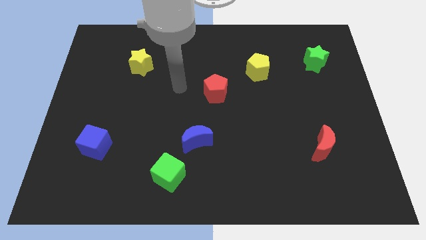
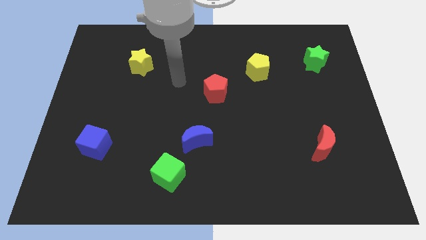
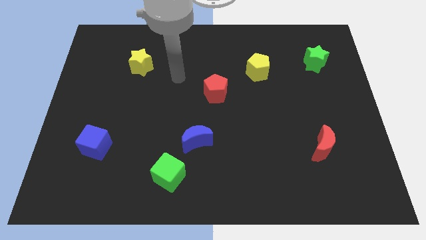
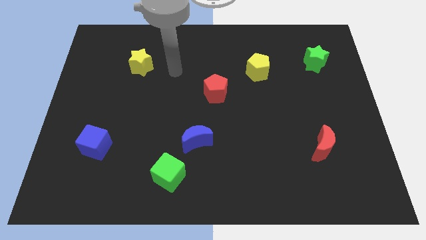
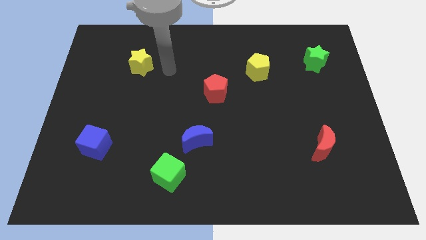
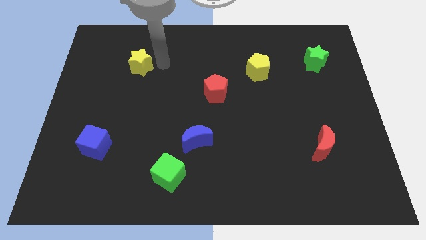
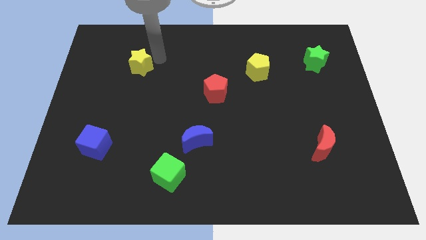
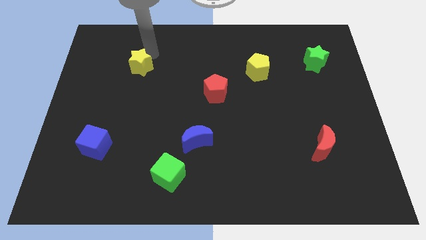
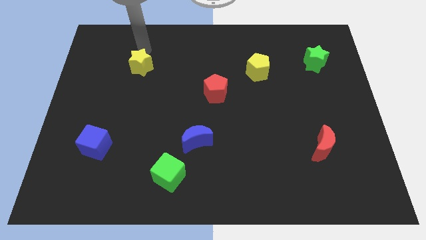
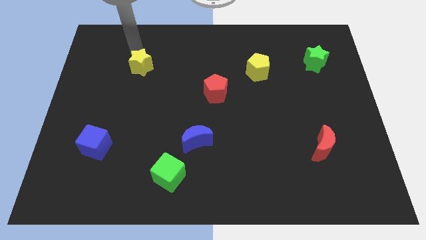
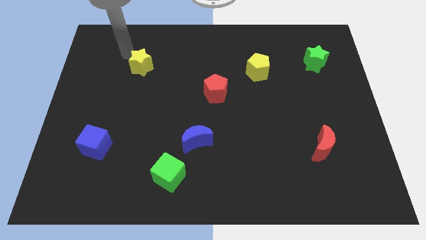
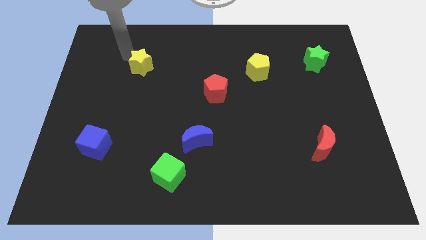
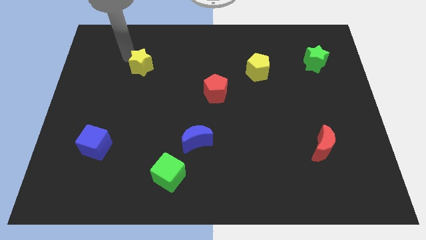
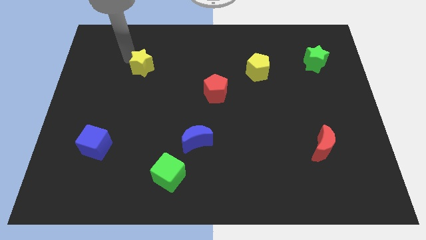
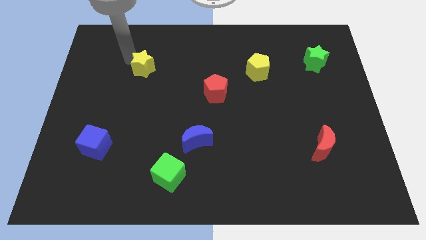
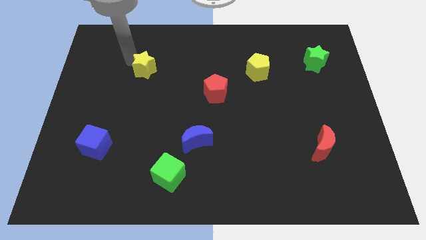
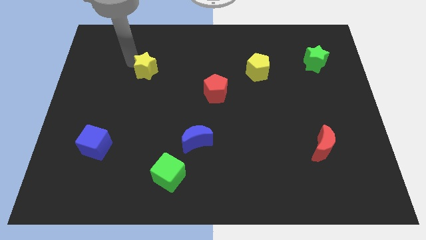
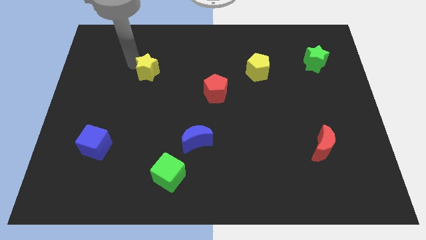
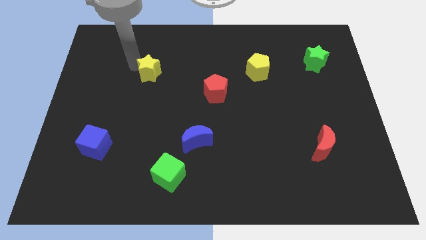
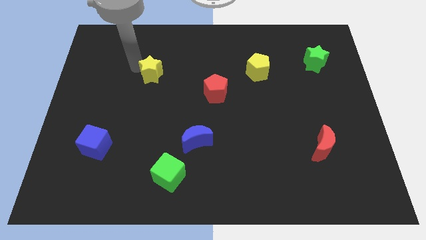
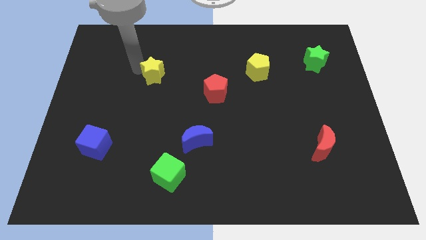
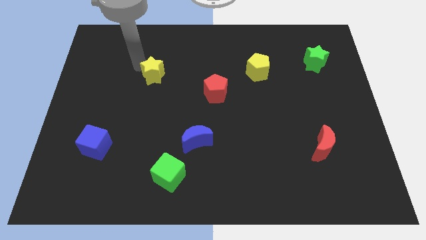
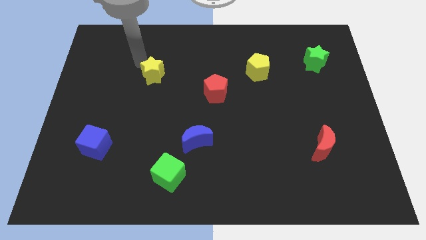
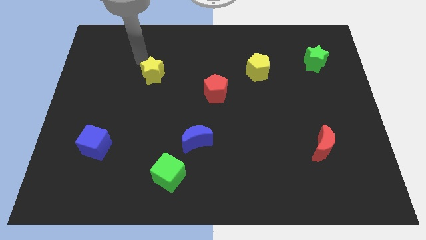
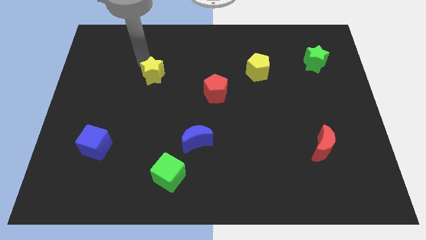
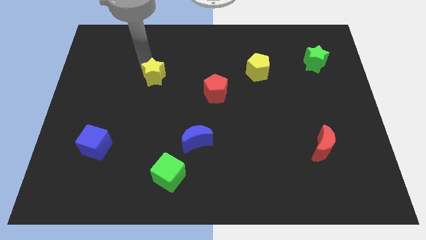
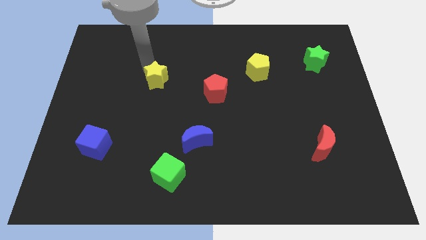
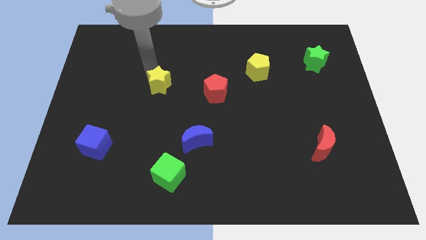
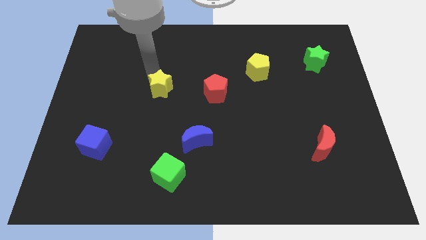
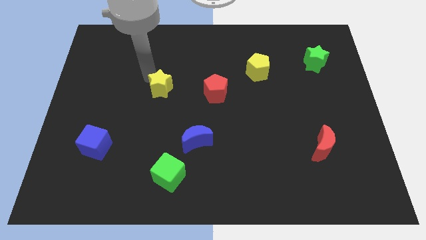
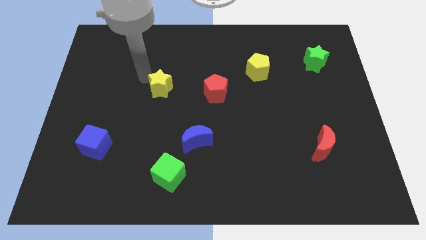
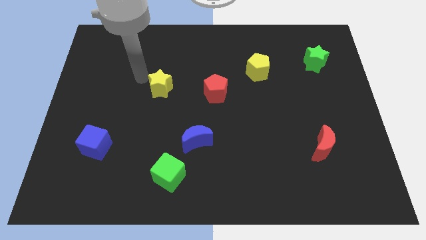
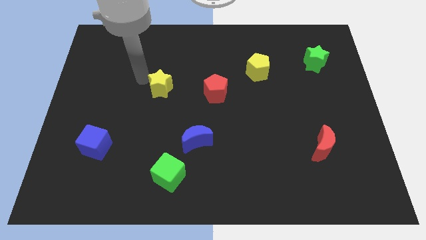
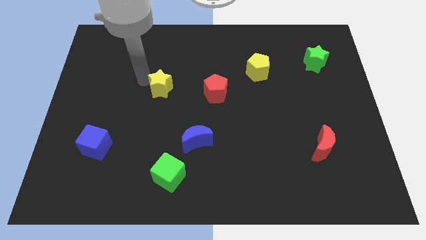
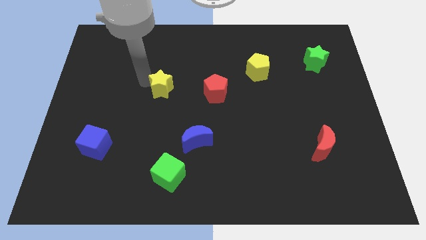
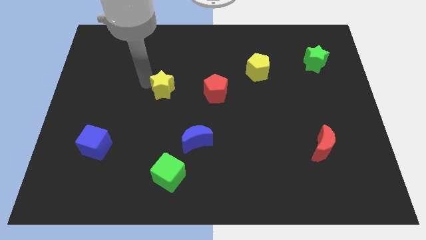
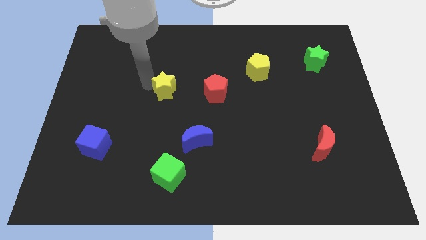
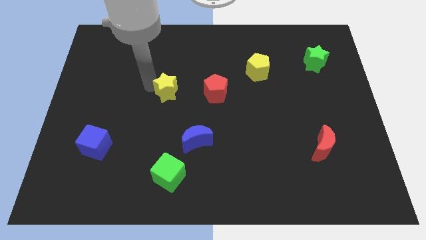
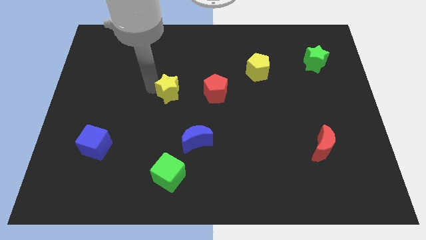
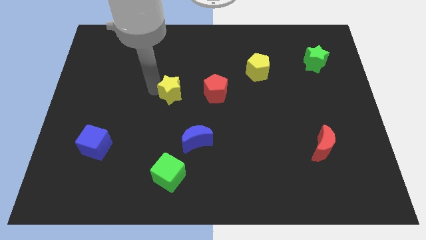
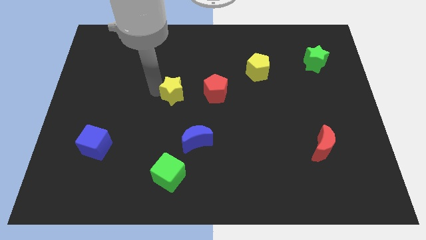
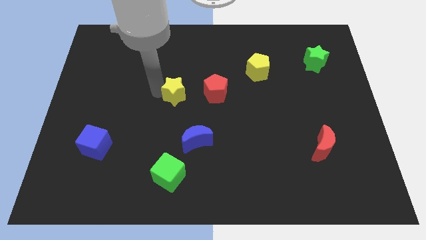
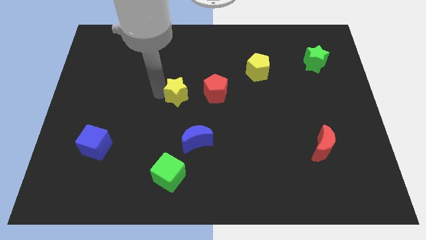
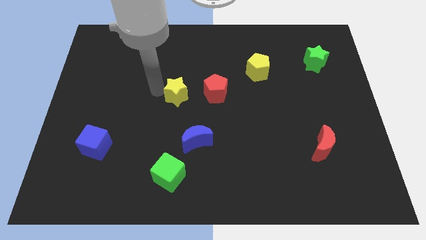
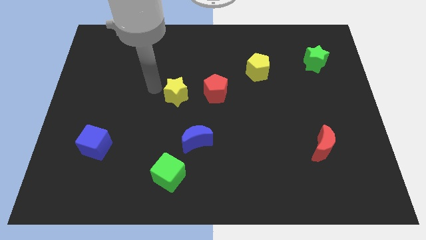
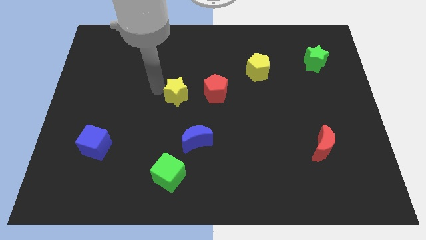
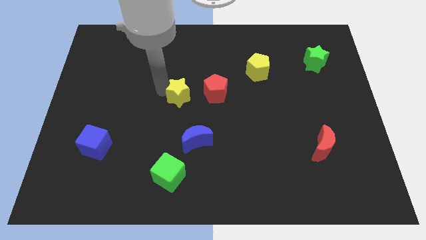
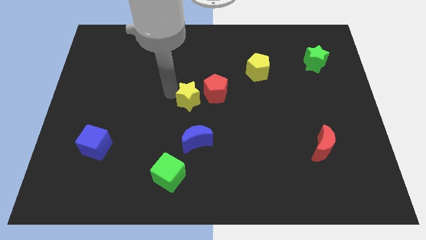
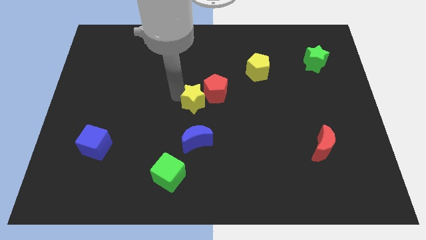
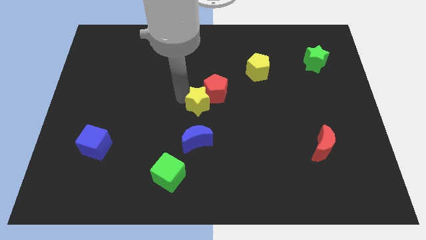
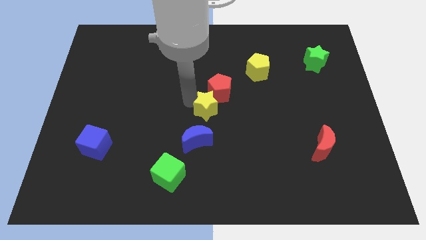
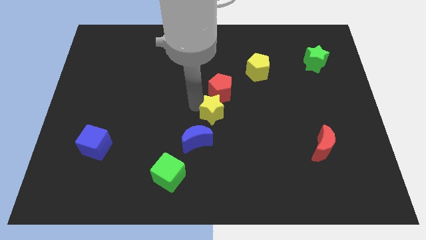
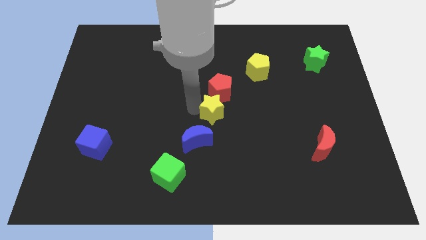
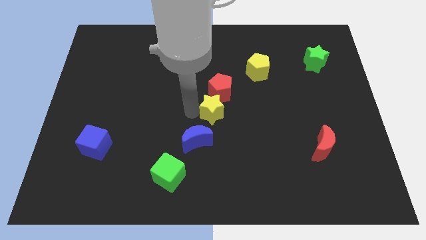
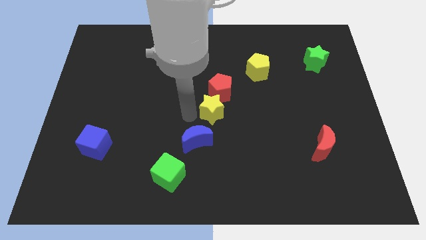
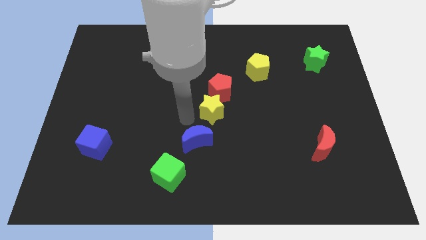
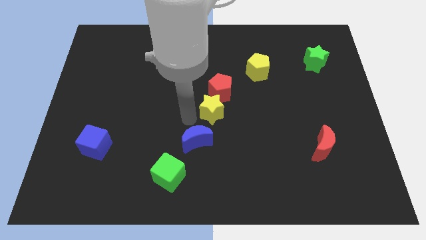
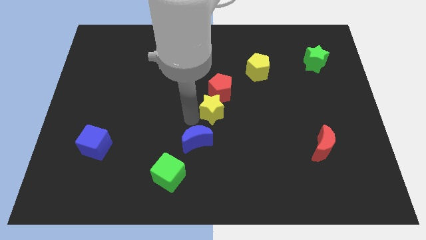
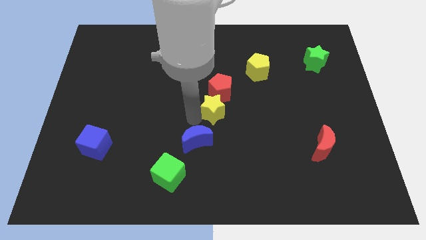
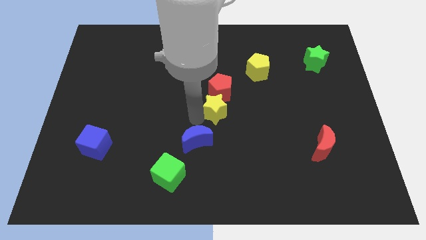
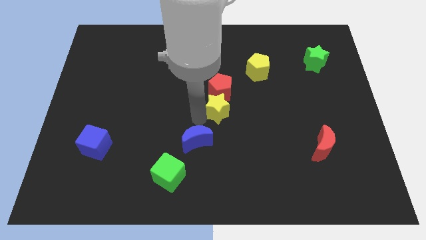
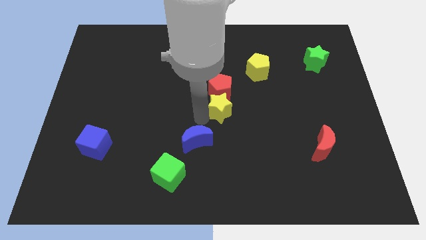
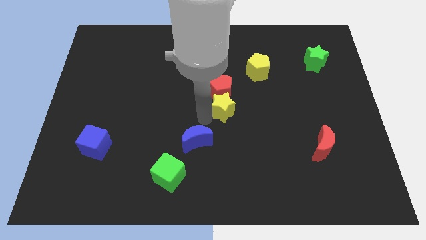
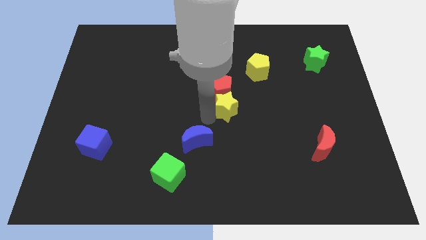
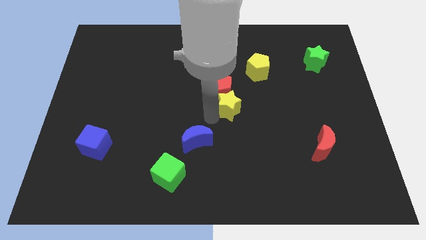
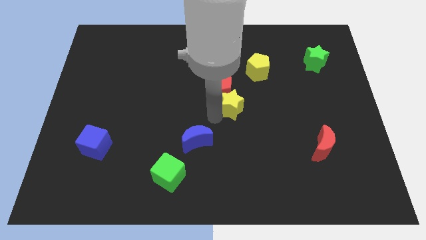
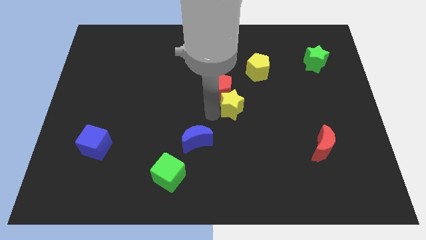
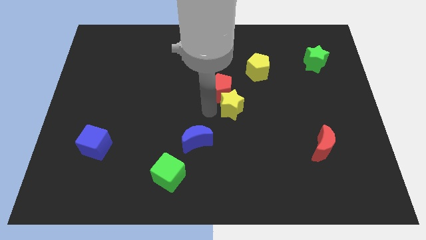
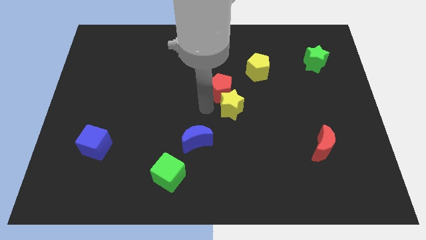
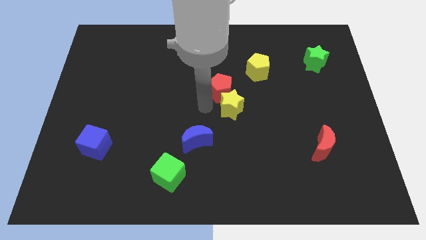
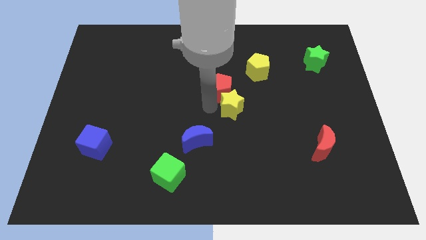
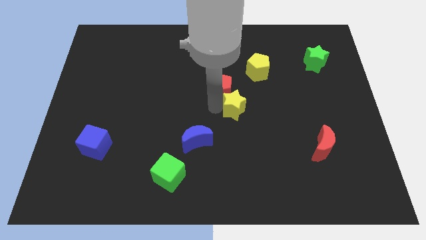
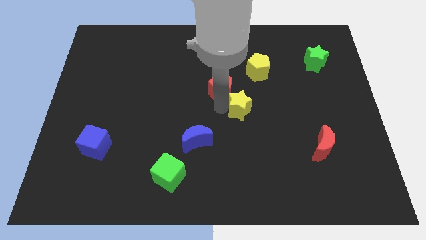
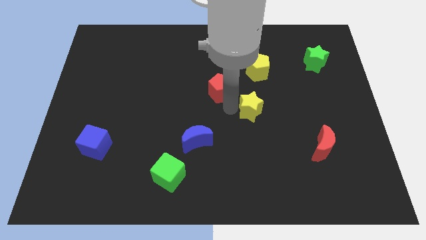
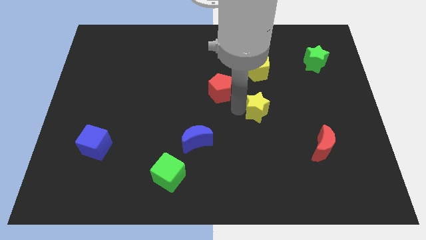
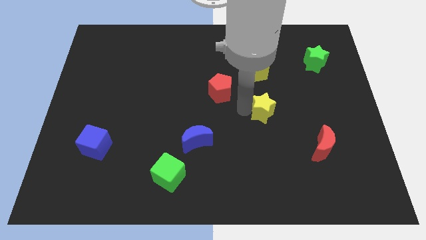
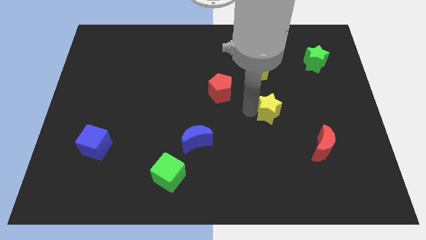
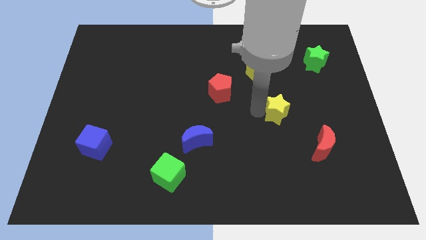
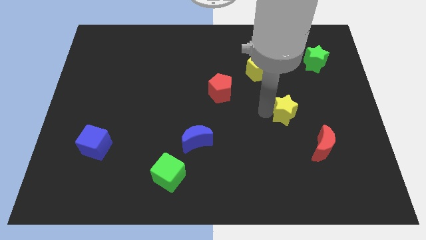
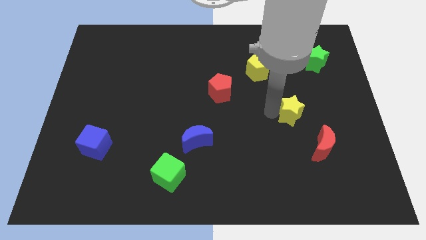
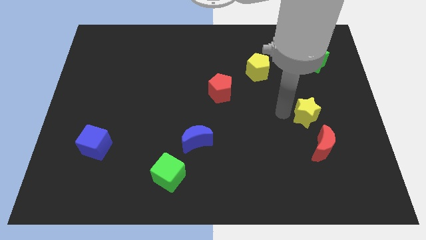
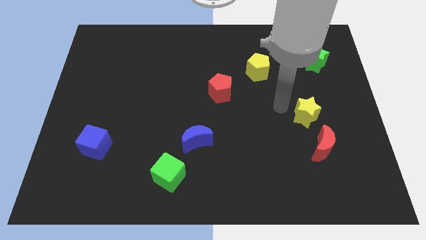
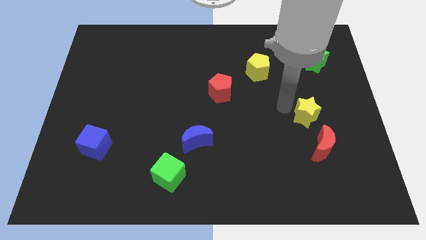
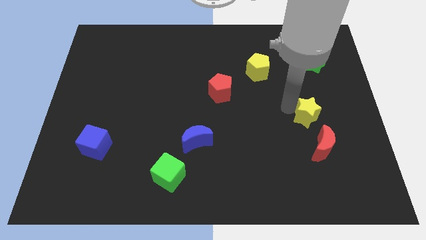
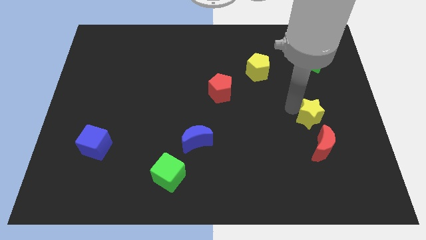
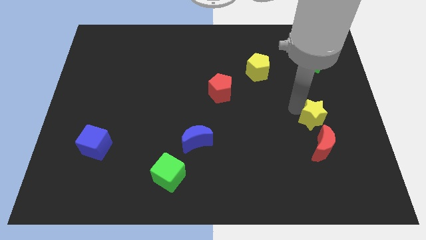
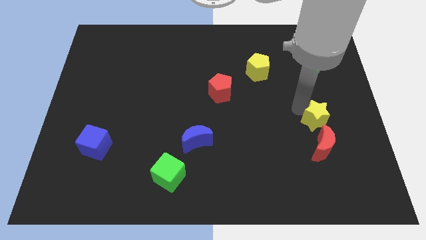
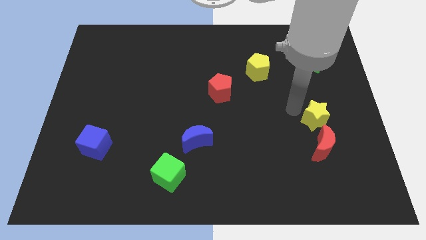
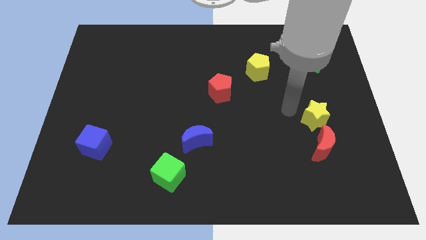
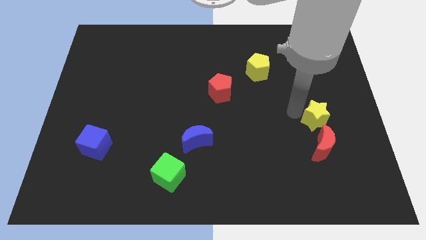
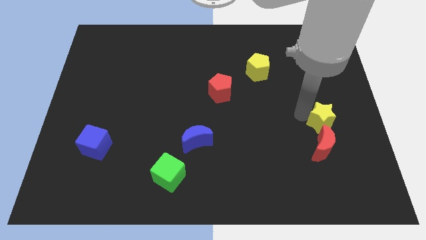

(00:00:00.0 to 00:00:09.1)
move the yellow star diagonally up and to the right of the red moon
